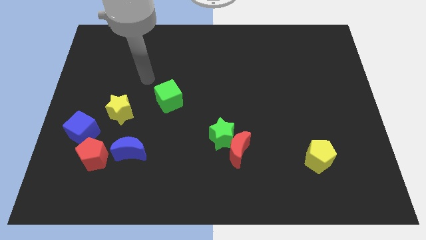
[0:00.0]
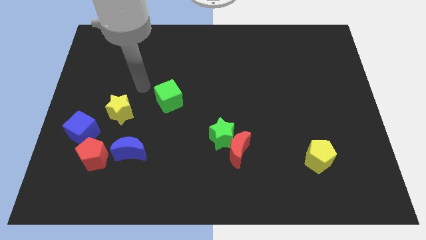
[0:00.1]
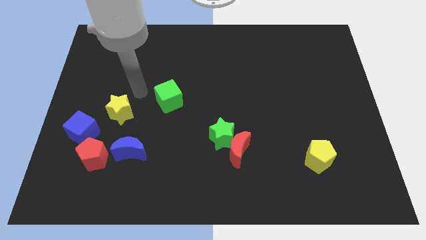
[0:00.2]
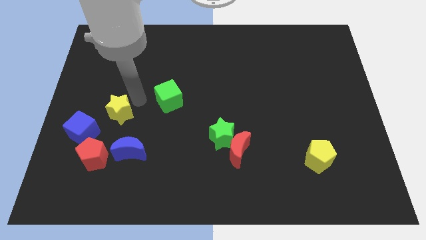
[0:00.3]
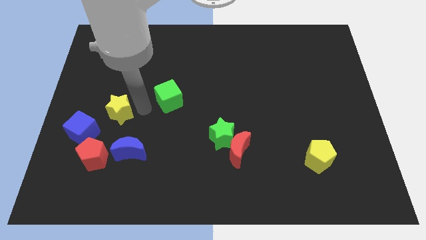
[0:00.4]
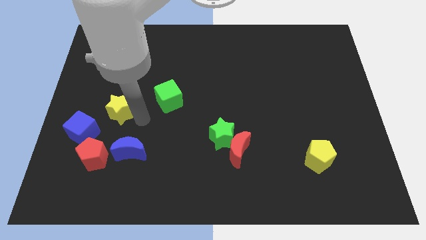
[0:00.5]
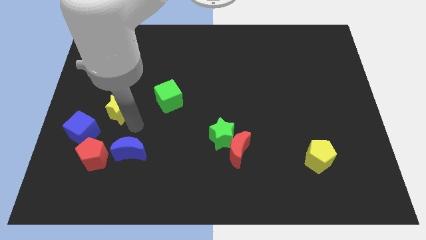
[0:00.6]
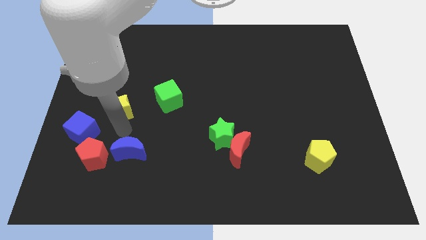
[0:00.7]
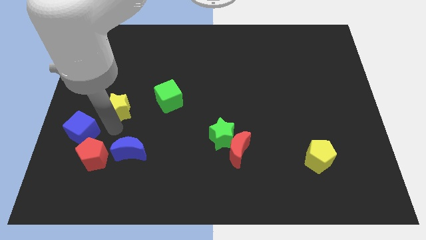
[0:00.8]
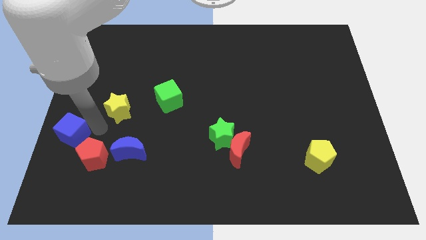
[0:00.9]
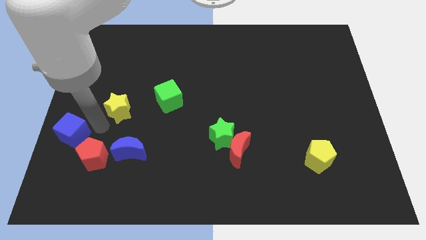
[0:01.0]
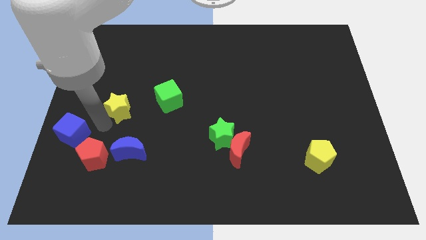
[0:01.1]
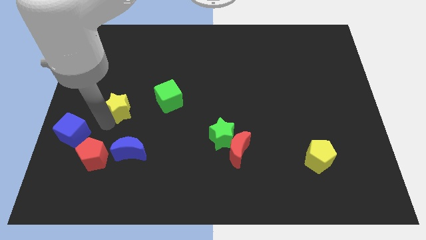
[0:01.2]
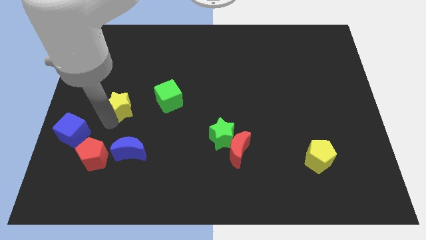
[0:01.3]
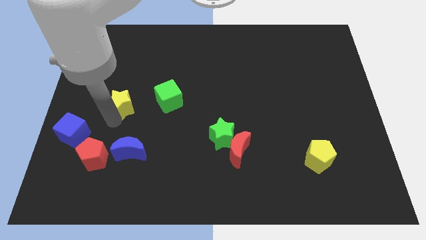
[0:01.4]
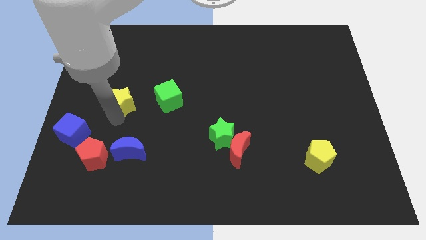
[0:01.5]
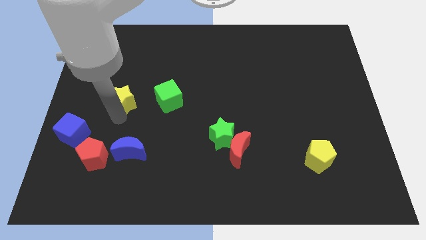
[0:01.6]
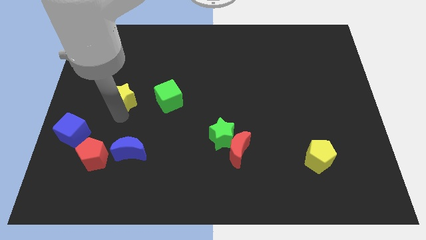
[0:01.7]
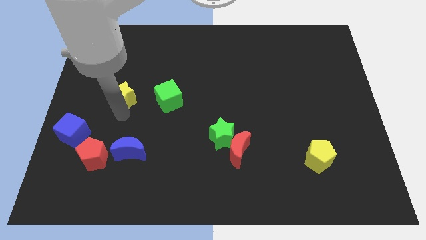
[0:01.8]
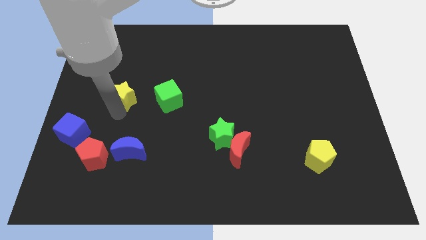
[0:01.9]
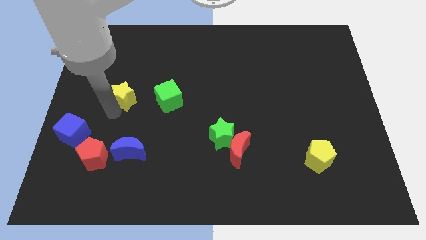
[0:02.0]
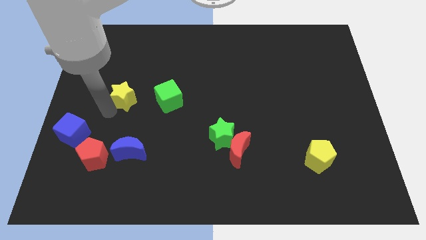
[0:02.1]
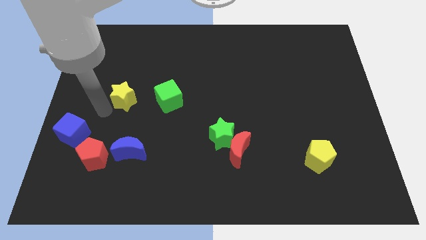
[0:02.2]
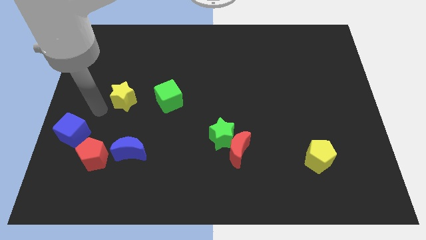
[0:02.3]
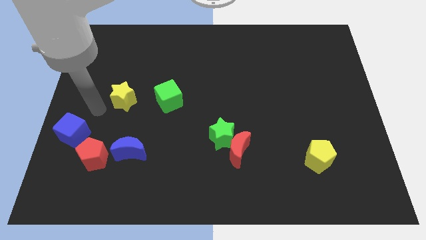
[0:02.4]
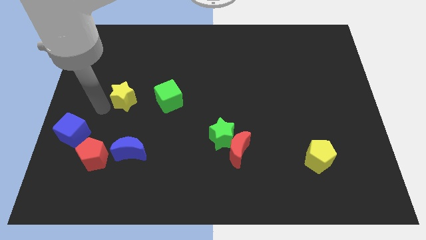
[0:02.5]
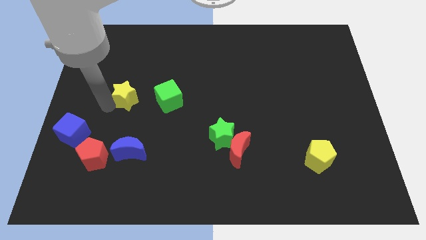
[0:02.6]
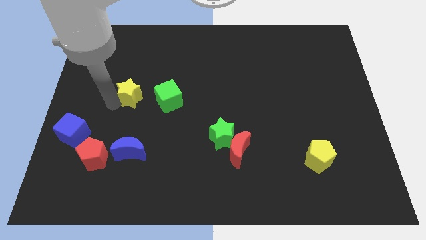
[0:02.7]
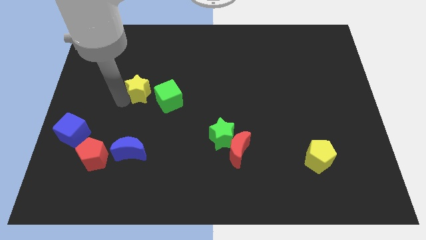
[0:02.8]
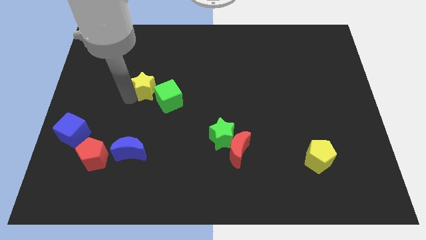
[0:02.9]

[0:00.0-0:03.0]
push the yellow star a bit upwards and right

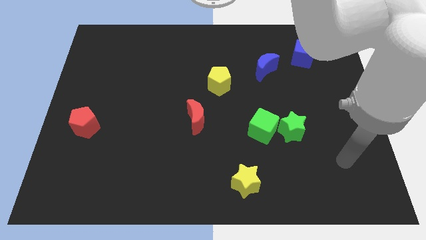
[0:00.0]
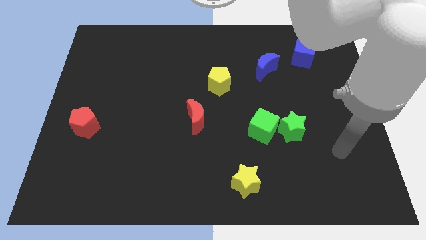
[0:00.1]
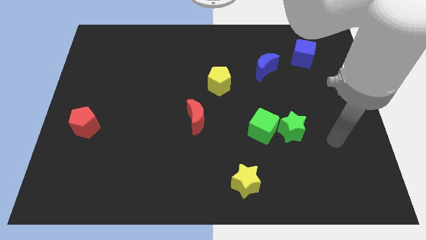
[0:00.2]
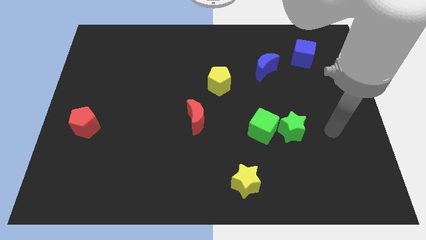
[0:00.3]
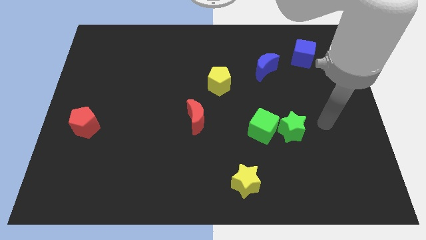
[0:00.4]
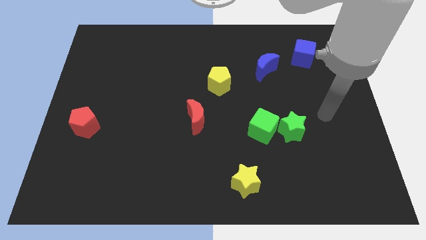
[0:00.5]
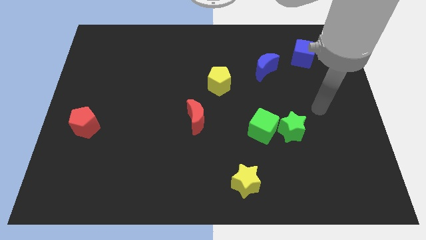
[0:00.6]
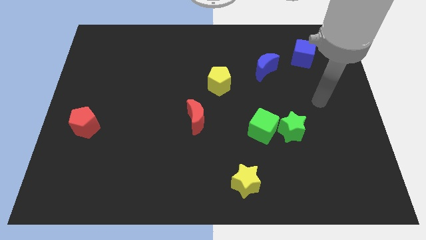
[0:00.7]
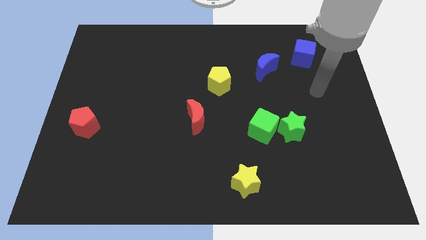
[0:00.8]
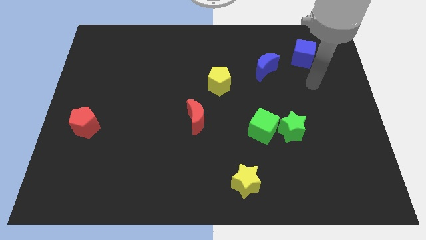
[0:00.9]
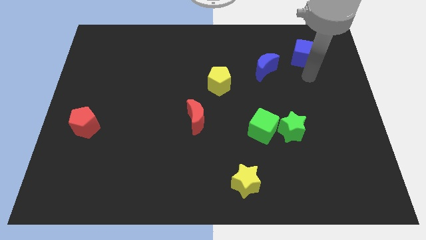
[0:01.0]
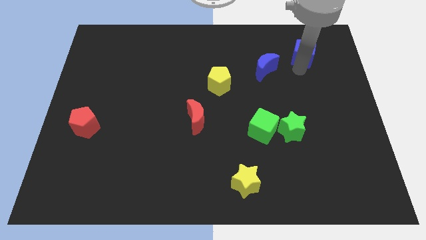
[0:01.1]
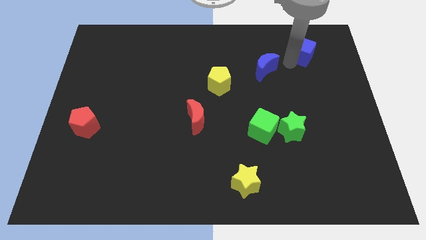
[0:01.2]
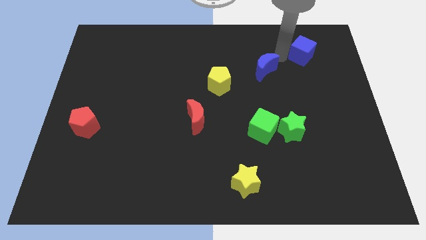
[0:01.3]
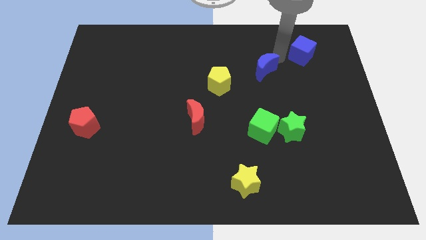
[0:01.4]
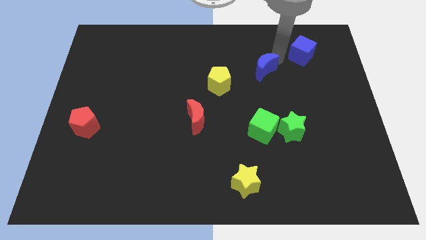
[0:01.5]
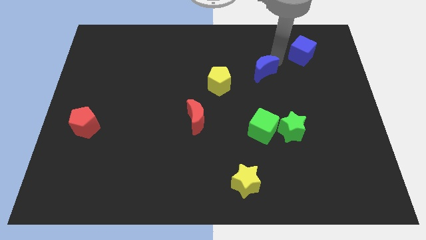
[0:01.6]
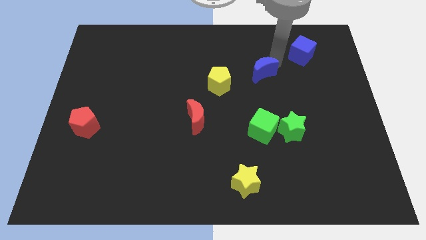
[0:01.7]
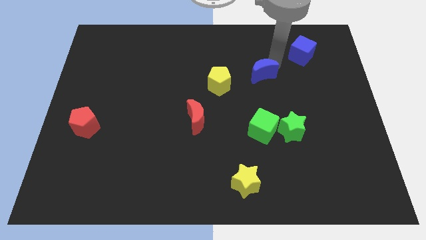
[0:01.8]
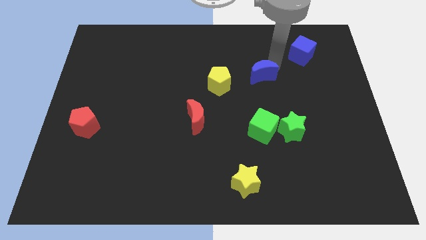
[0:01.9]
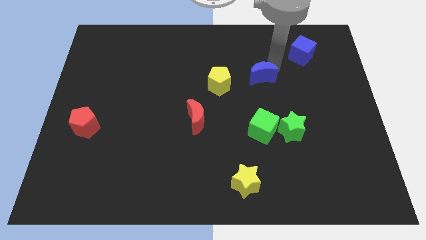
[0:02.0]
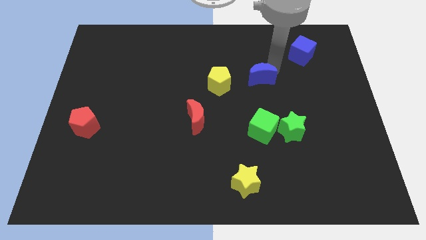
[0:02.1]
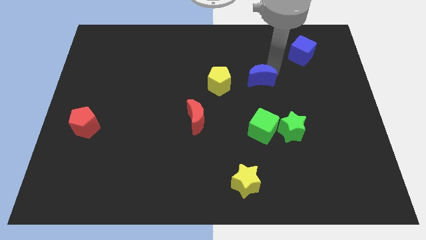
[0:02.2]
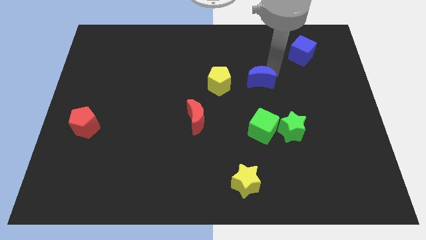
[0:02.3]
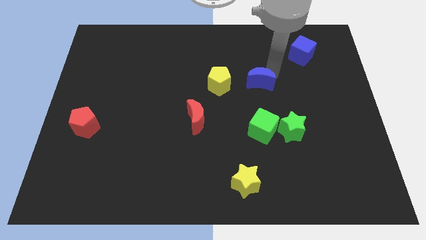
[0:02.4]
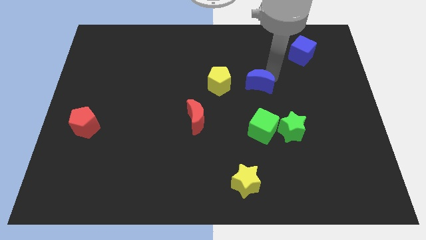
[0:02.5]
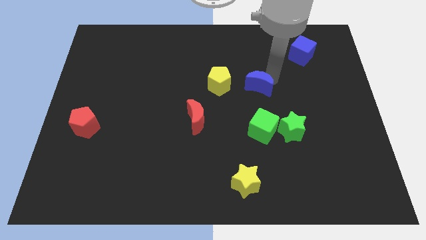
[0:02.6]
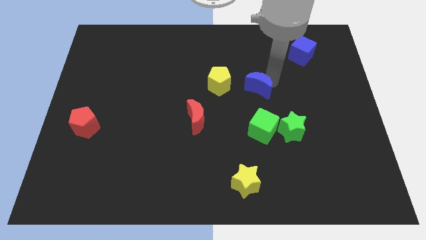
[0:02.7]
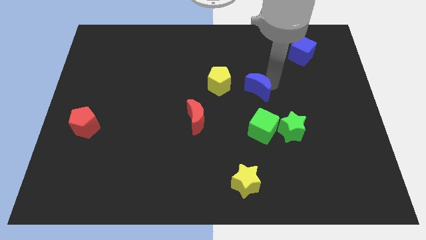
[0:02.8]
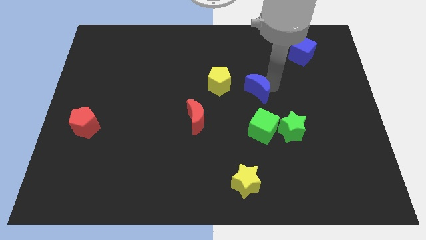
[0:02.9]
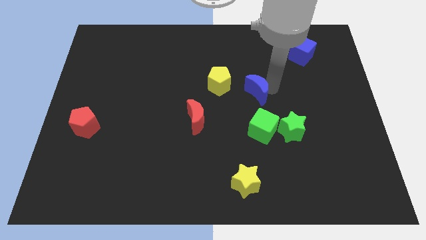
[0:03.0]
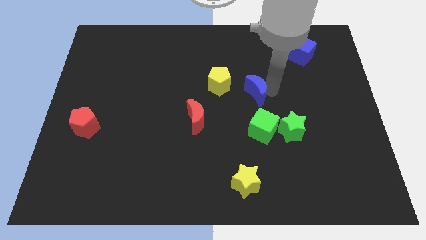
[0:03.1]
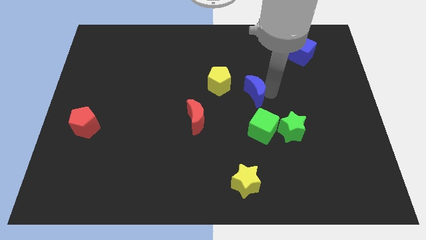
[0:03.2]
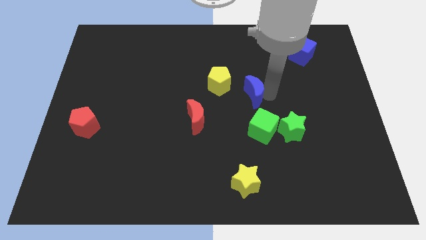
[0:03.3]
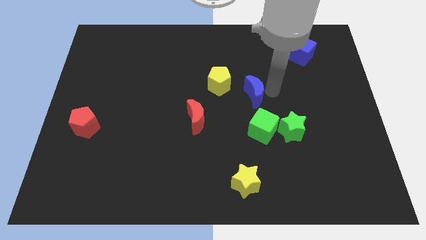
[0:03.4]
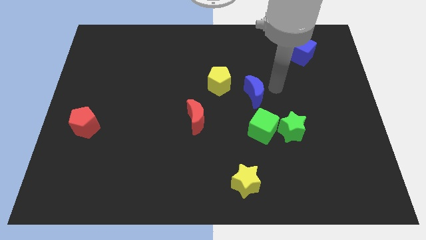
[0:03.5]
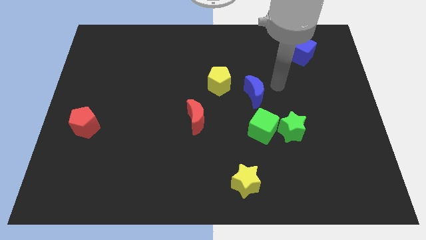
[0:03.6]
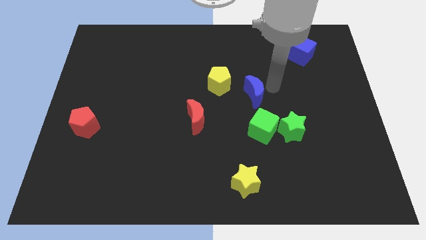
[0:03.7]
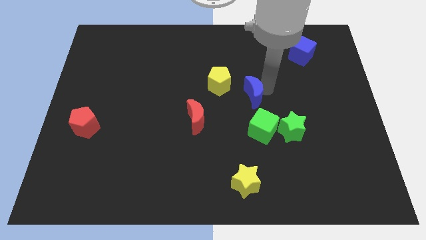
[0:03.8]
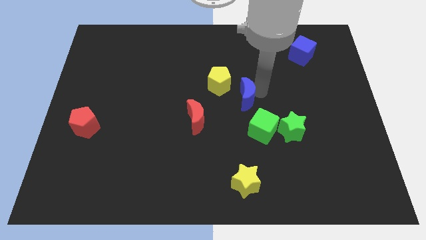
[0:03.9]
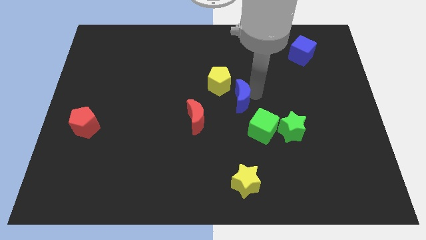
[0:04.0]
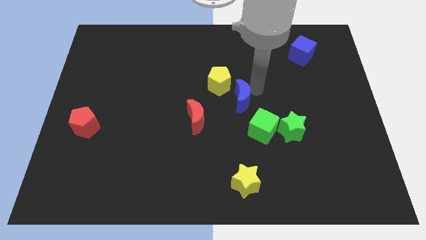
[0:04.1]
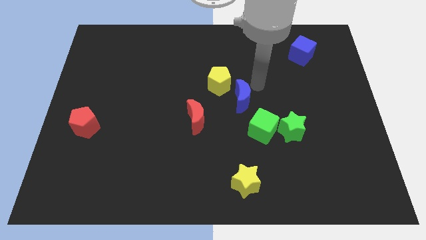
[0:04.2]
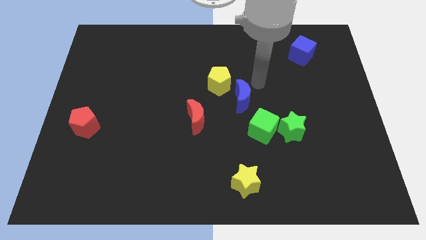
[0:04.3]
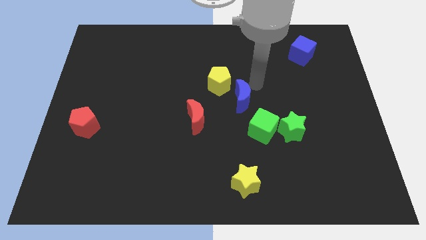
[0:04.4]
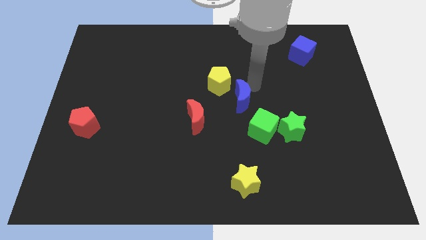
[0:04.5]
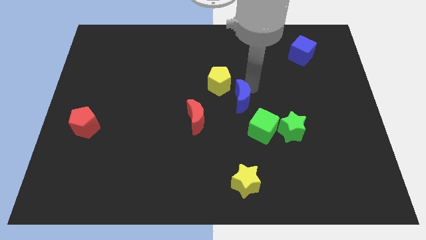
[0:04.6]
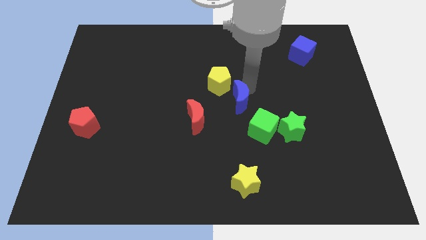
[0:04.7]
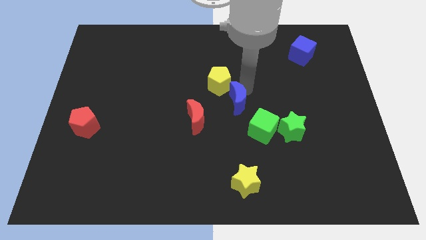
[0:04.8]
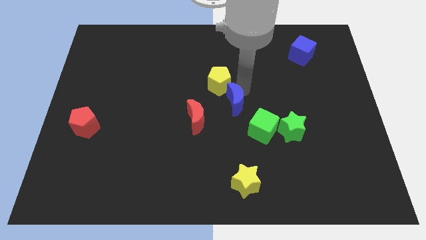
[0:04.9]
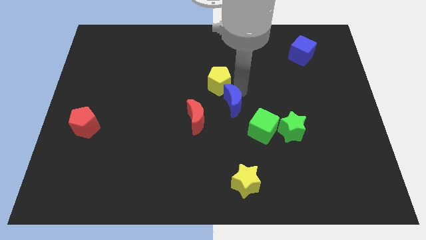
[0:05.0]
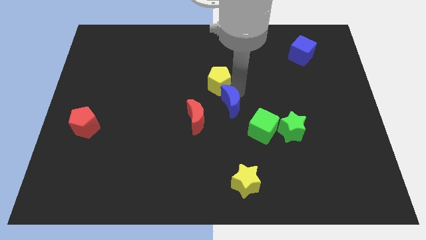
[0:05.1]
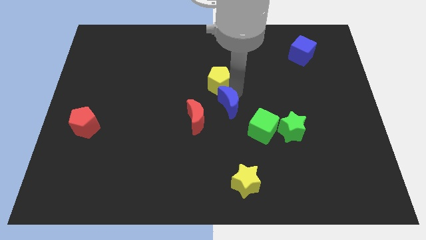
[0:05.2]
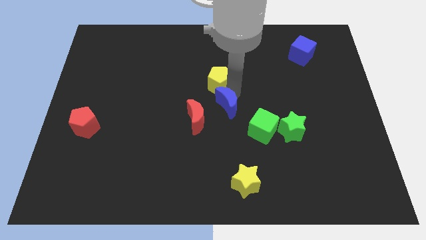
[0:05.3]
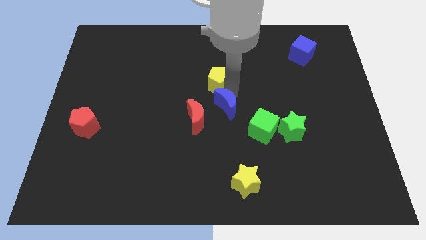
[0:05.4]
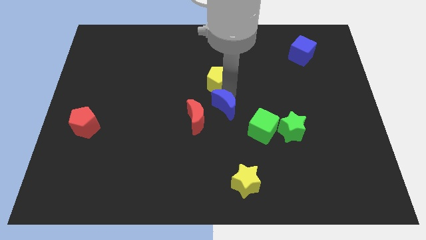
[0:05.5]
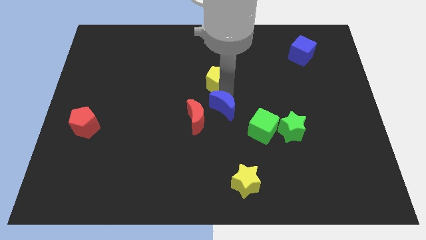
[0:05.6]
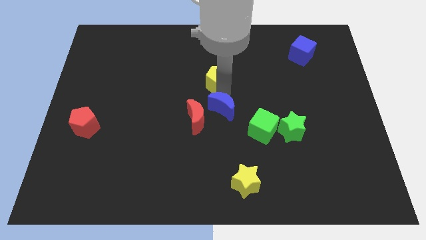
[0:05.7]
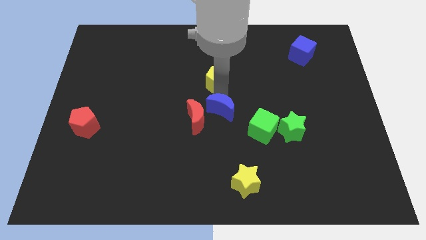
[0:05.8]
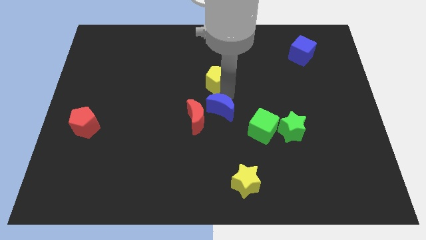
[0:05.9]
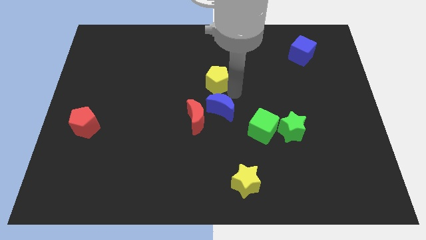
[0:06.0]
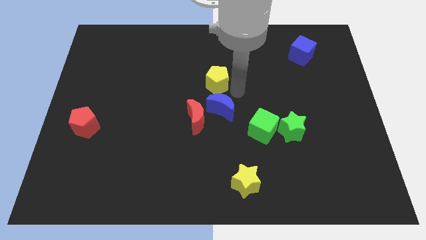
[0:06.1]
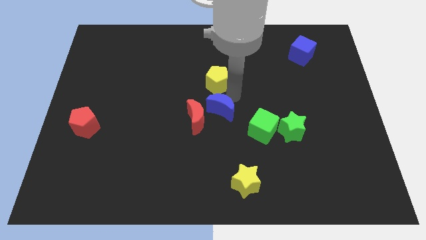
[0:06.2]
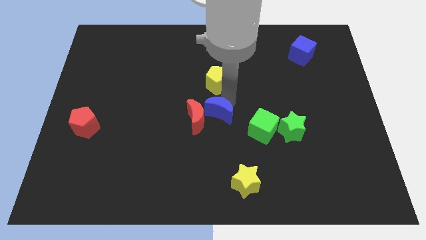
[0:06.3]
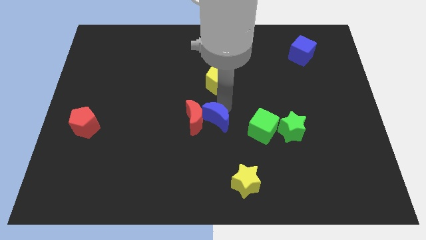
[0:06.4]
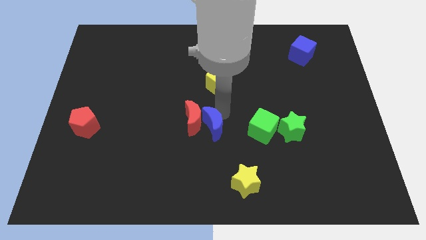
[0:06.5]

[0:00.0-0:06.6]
move the blue moon diagonally downwards and to the left
